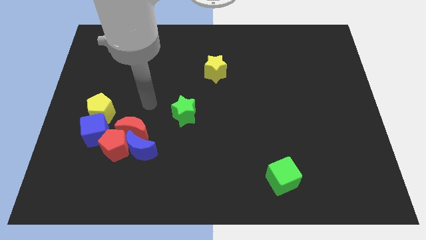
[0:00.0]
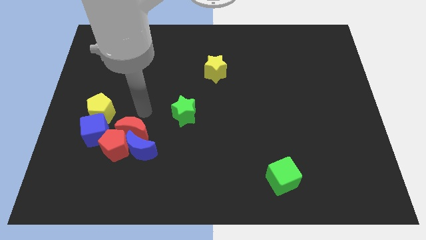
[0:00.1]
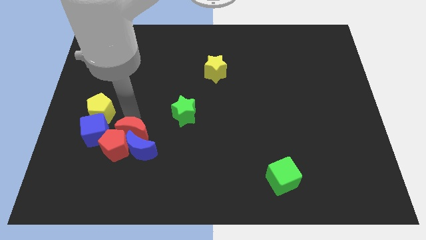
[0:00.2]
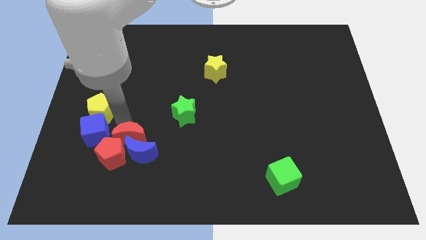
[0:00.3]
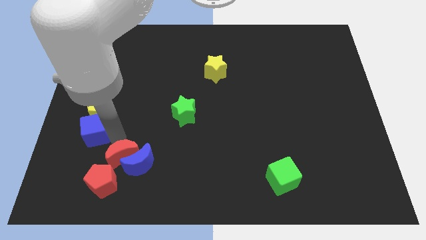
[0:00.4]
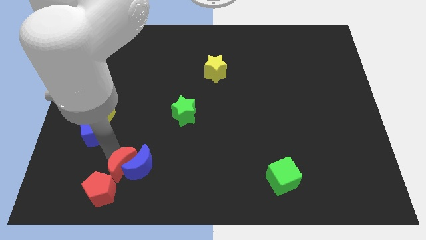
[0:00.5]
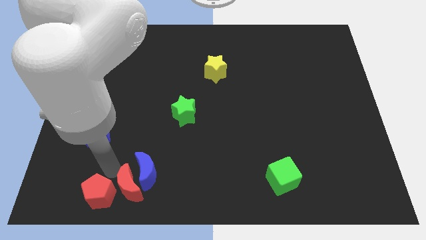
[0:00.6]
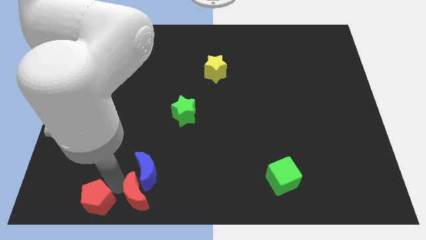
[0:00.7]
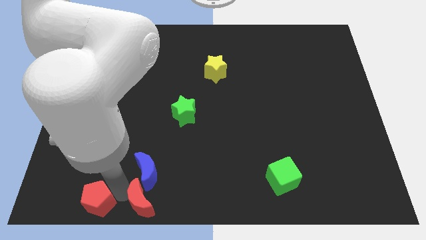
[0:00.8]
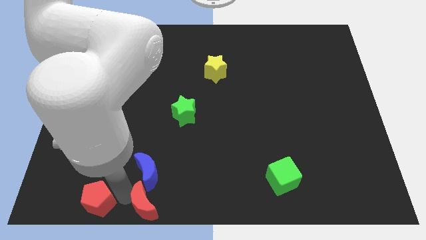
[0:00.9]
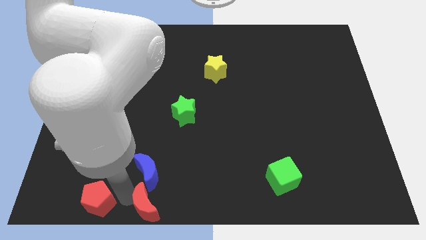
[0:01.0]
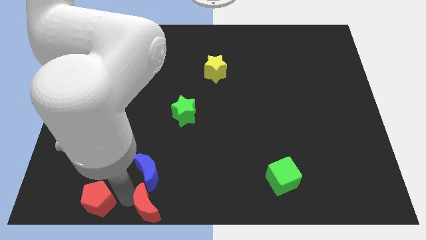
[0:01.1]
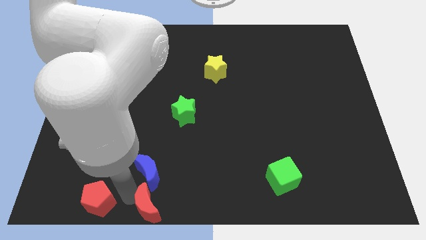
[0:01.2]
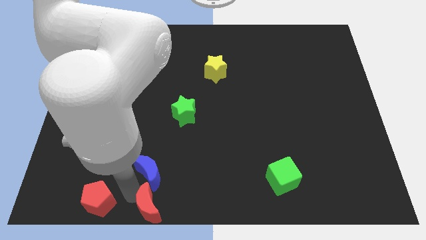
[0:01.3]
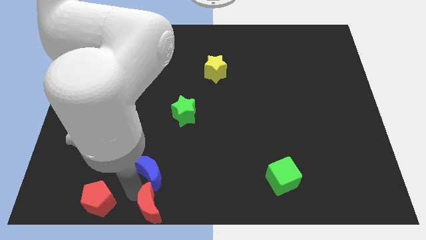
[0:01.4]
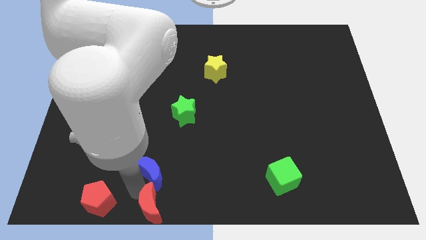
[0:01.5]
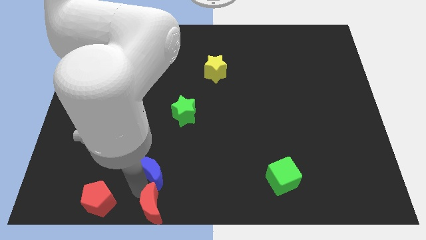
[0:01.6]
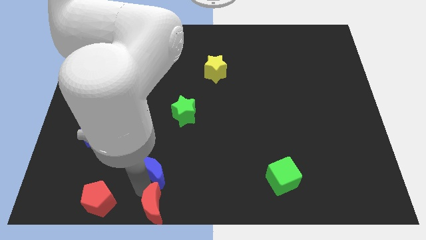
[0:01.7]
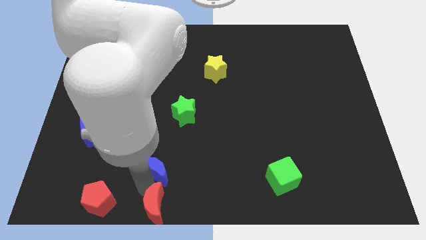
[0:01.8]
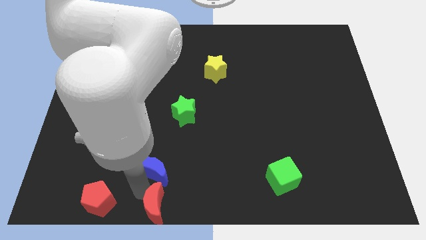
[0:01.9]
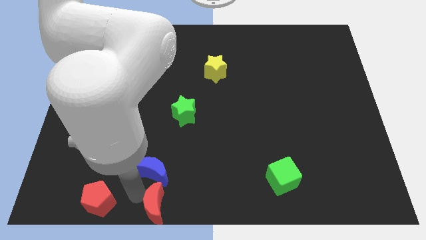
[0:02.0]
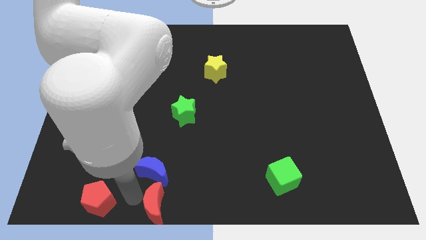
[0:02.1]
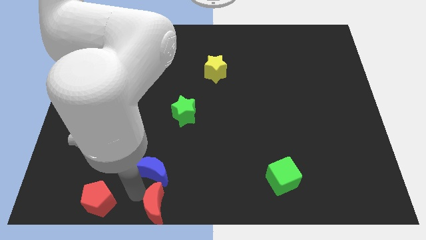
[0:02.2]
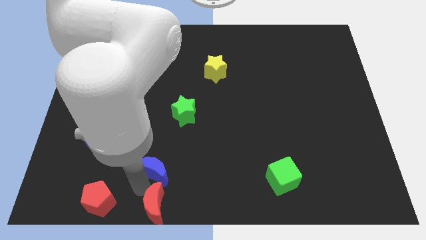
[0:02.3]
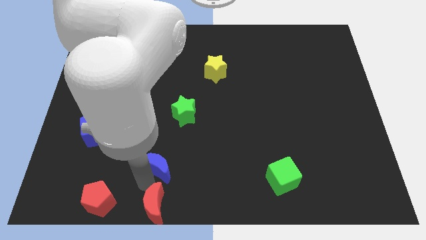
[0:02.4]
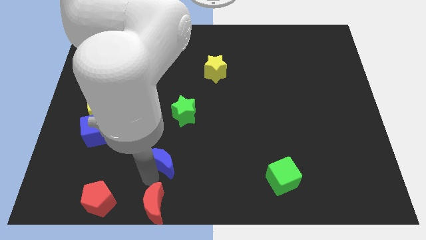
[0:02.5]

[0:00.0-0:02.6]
move the blue moon away from the red pentagon and red moon

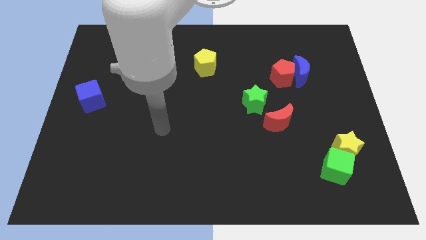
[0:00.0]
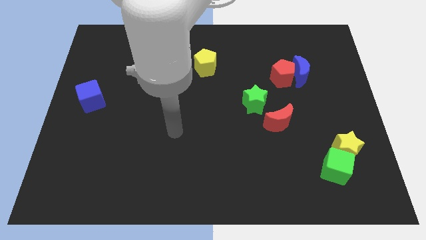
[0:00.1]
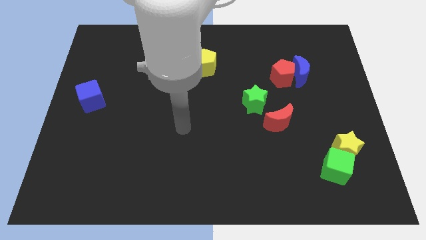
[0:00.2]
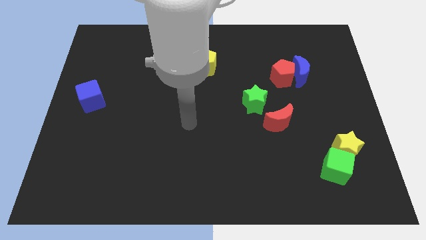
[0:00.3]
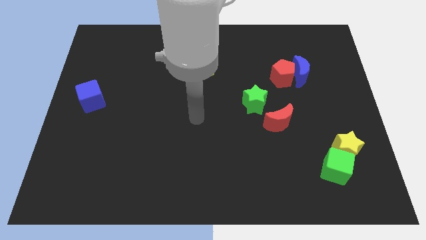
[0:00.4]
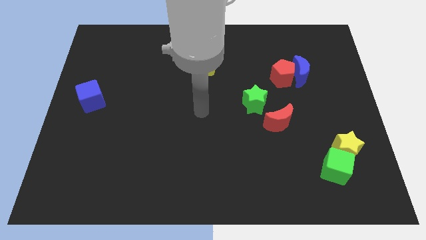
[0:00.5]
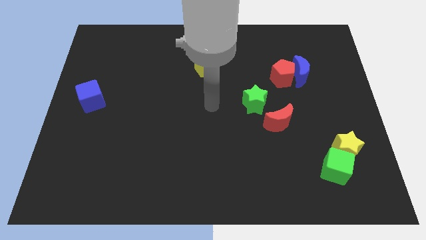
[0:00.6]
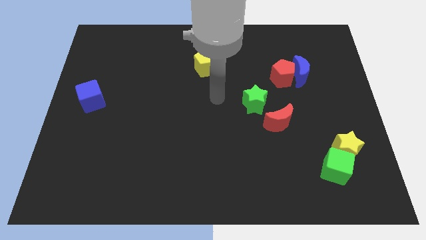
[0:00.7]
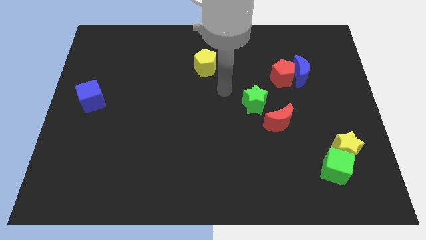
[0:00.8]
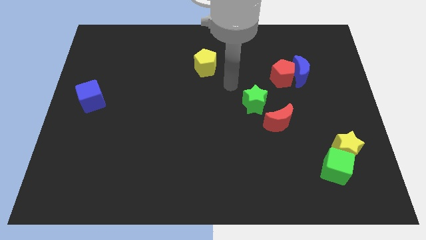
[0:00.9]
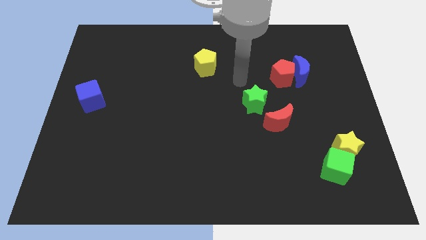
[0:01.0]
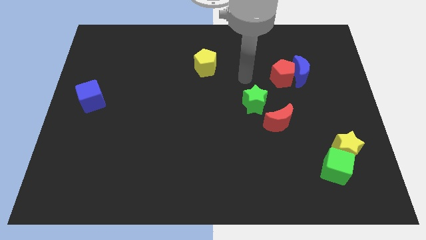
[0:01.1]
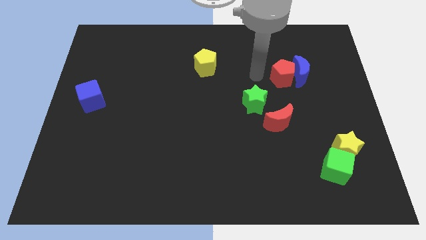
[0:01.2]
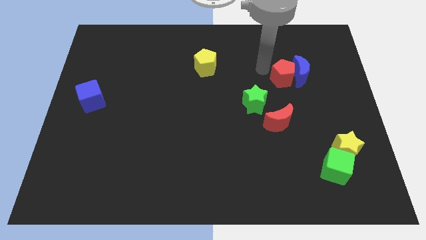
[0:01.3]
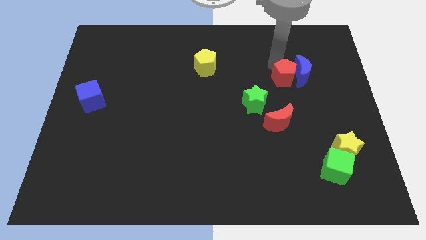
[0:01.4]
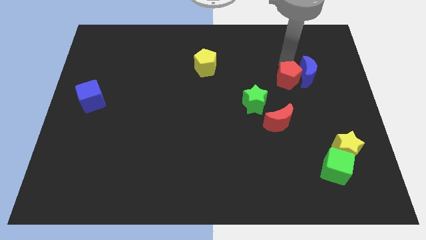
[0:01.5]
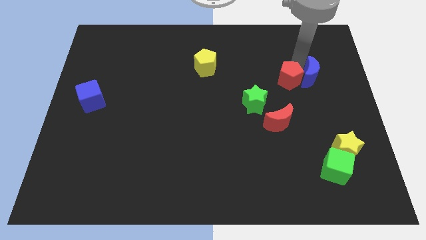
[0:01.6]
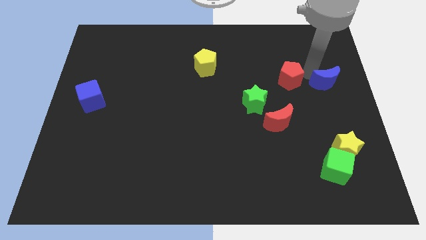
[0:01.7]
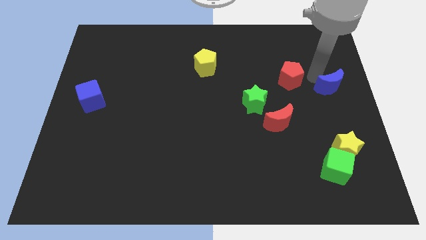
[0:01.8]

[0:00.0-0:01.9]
move the red pentagon away from the blue moon

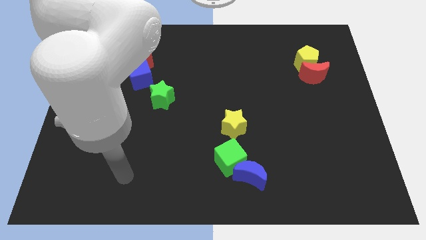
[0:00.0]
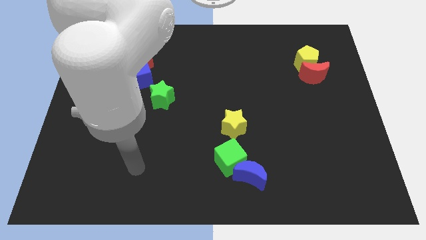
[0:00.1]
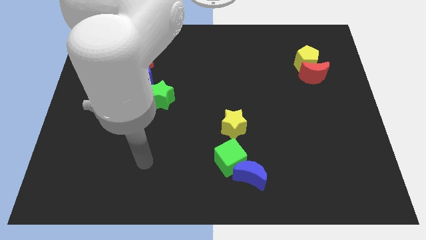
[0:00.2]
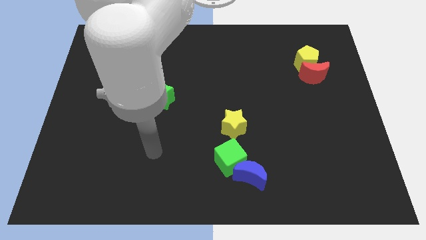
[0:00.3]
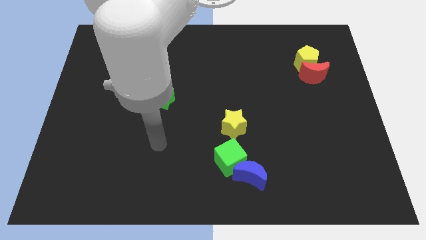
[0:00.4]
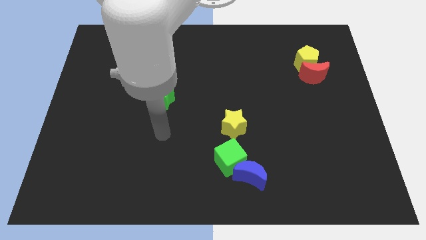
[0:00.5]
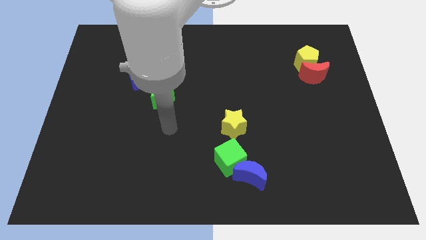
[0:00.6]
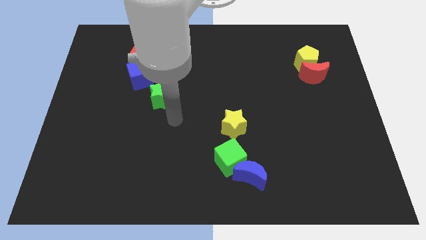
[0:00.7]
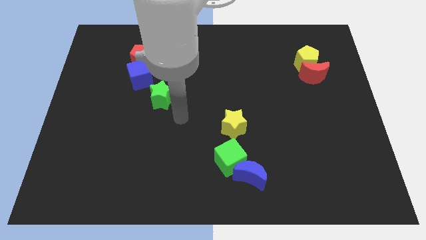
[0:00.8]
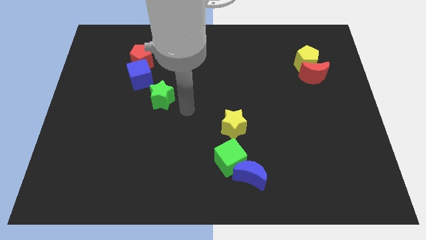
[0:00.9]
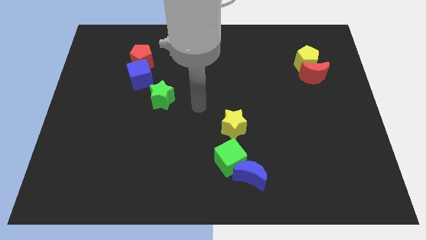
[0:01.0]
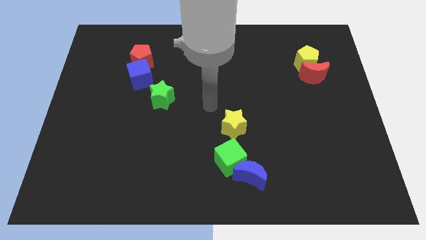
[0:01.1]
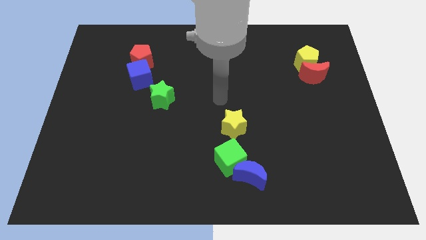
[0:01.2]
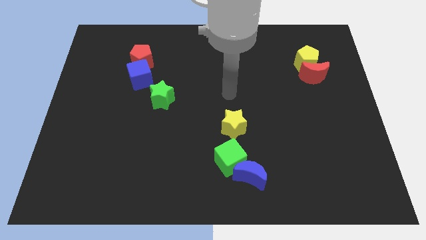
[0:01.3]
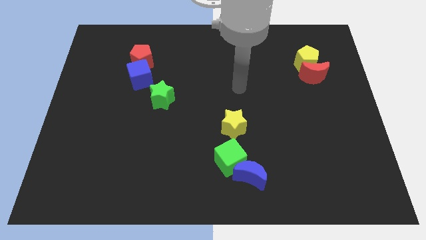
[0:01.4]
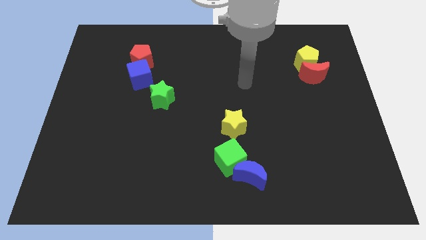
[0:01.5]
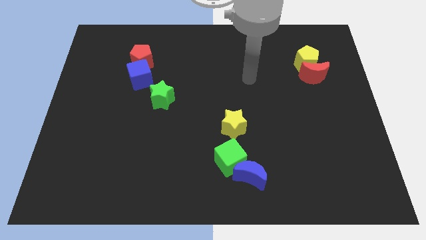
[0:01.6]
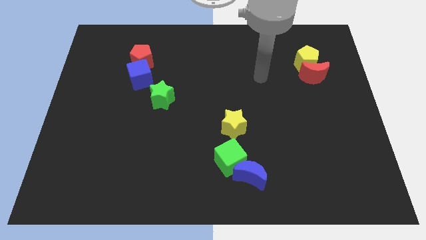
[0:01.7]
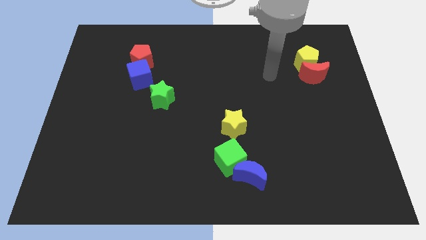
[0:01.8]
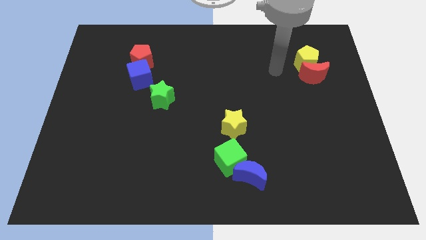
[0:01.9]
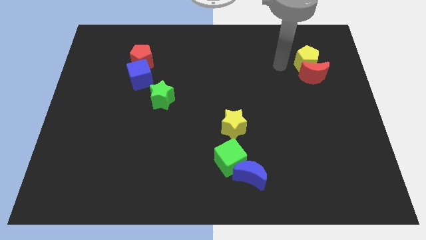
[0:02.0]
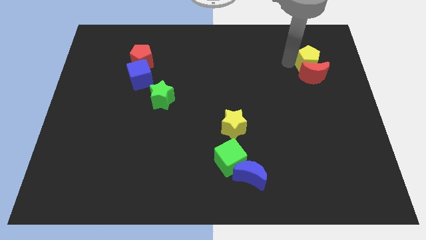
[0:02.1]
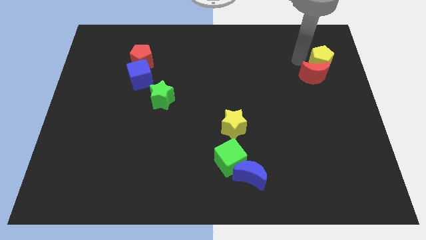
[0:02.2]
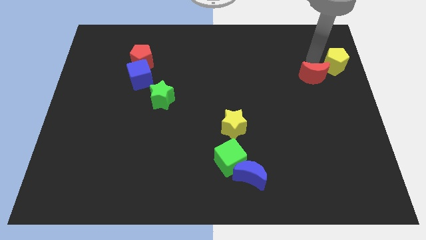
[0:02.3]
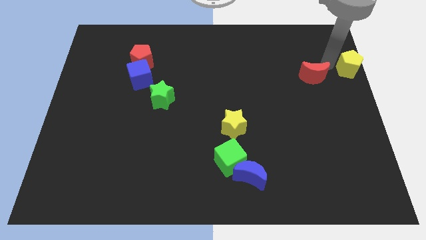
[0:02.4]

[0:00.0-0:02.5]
pull the red moon apart from the yellow pentagon

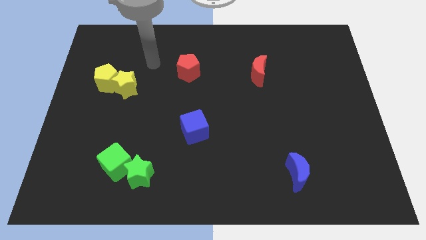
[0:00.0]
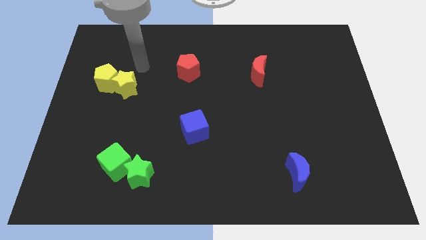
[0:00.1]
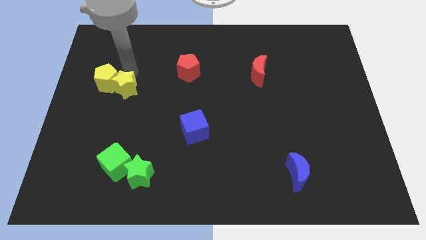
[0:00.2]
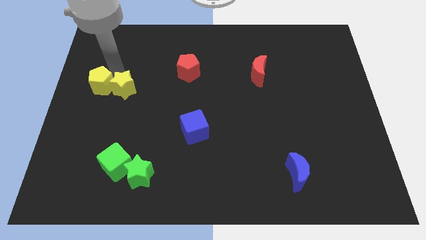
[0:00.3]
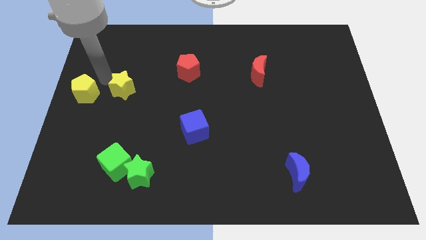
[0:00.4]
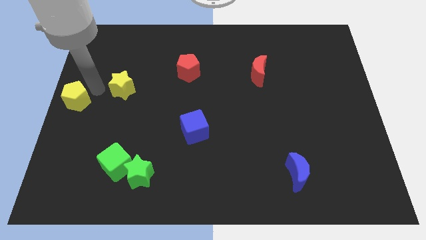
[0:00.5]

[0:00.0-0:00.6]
separate the yellow star from the yellow pentagon

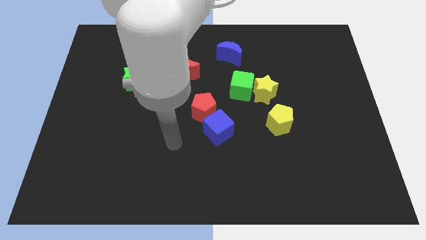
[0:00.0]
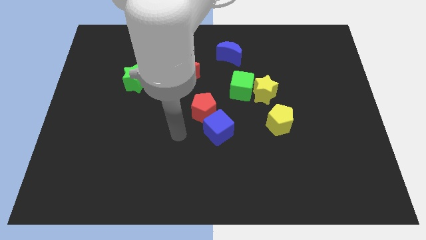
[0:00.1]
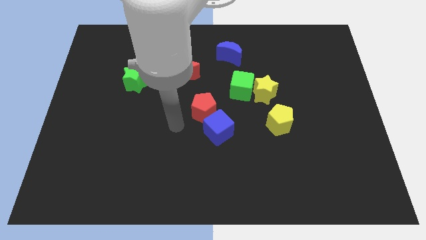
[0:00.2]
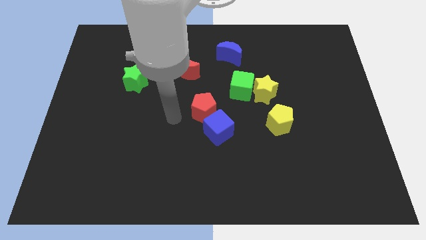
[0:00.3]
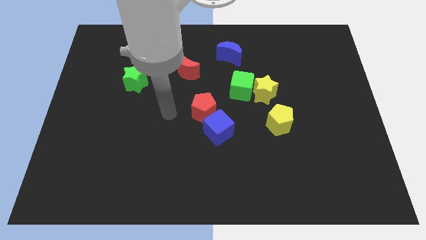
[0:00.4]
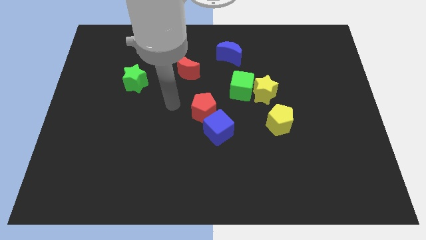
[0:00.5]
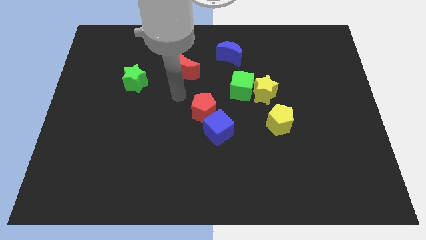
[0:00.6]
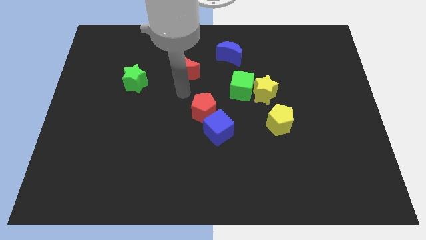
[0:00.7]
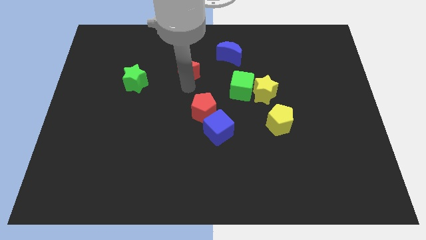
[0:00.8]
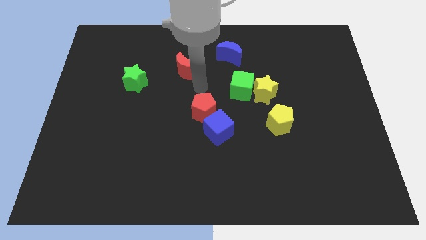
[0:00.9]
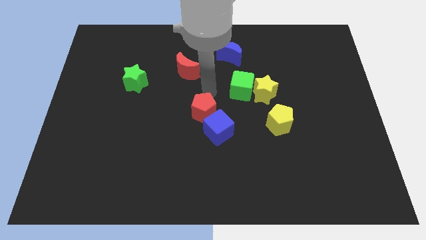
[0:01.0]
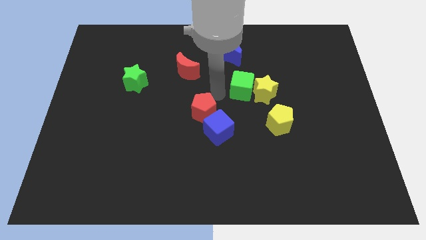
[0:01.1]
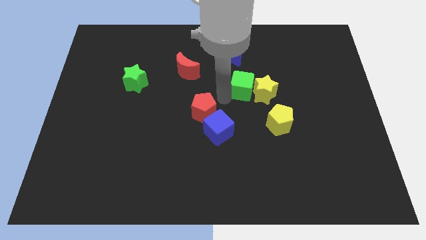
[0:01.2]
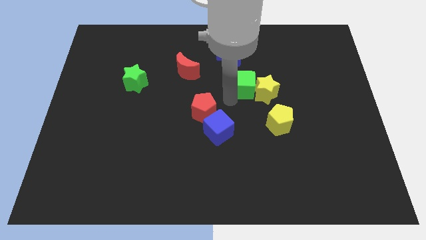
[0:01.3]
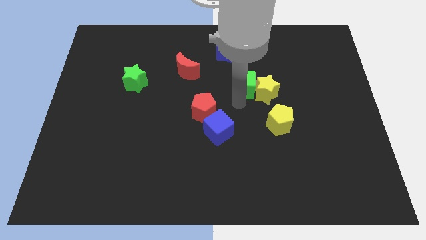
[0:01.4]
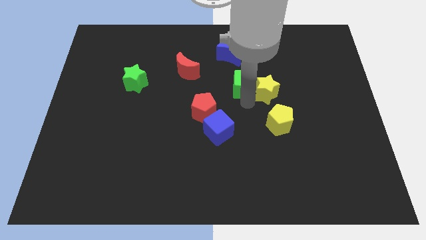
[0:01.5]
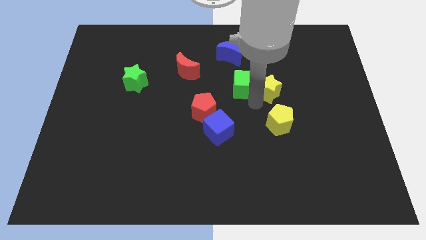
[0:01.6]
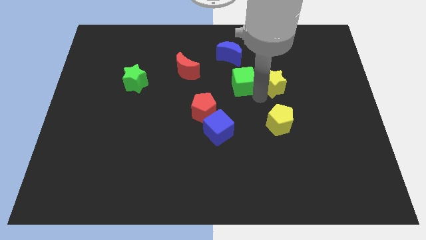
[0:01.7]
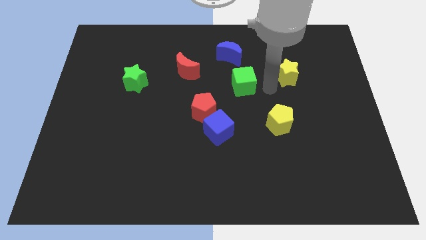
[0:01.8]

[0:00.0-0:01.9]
pull the green cube apart from the yellow star
